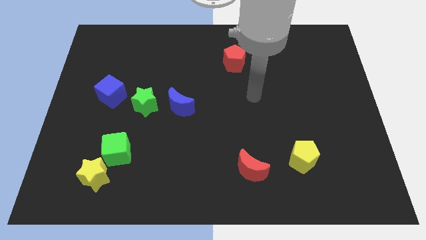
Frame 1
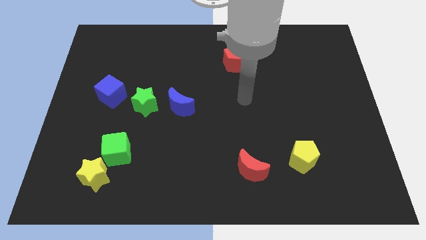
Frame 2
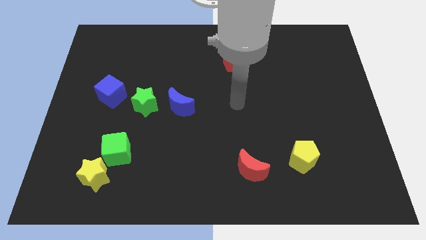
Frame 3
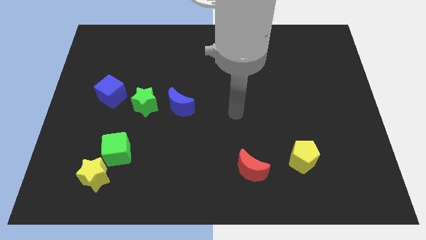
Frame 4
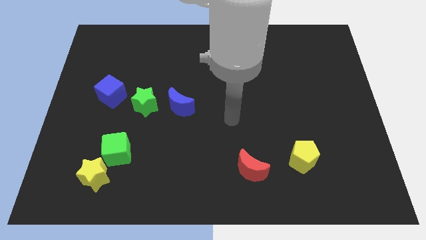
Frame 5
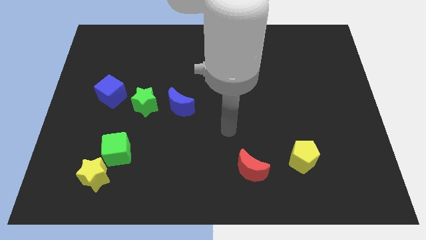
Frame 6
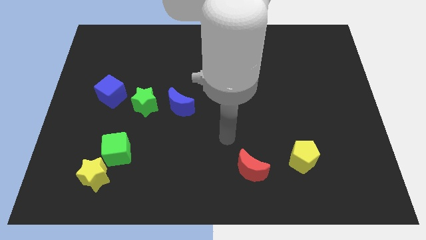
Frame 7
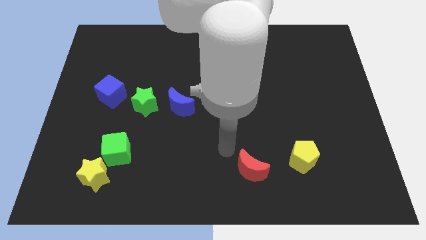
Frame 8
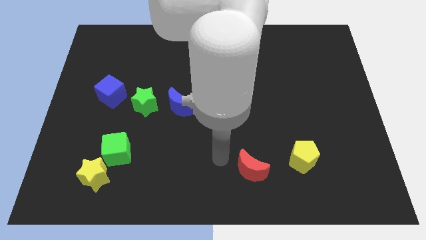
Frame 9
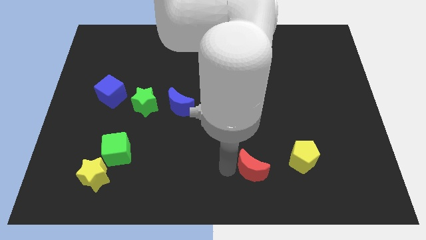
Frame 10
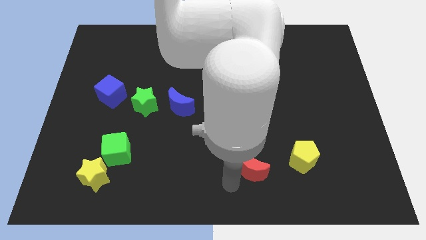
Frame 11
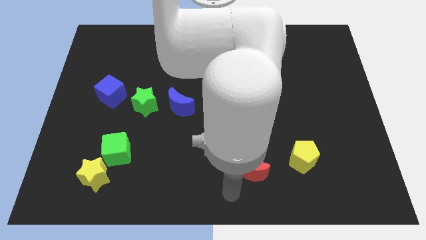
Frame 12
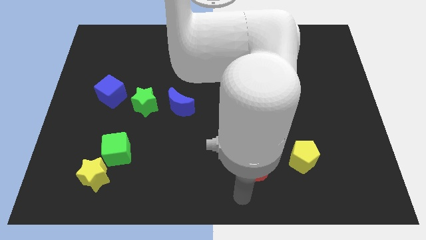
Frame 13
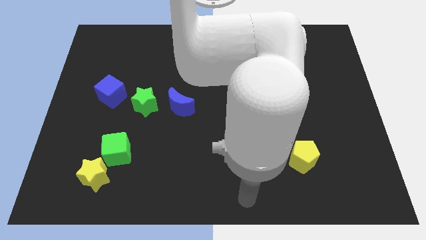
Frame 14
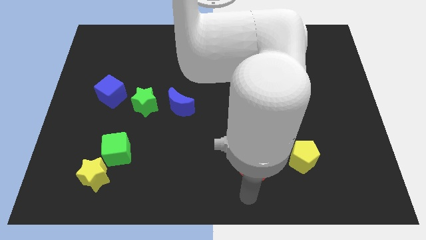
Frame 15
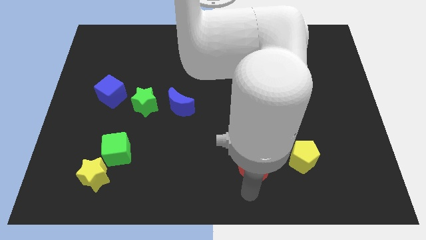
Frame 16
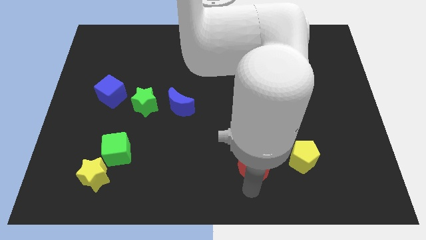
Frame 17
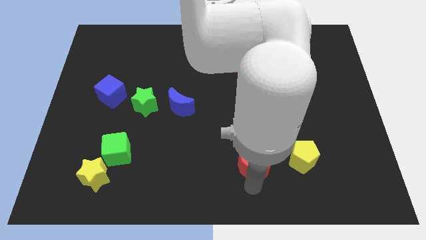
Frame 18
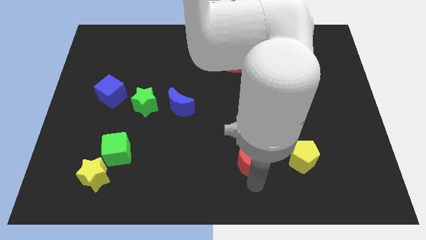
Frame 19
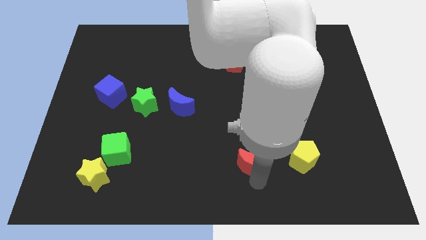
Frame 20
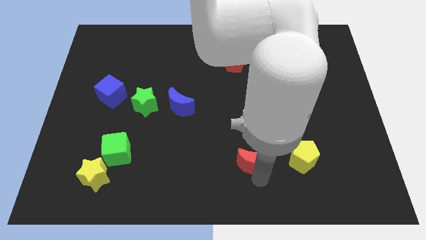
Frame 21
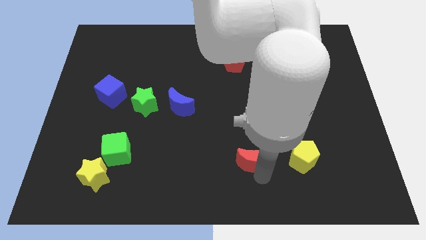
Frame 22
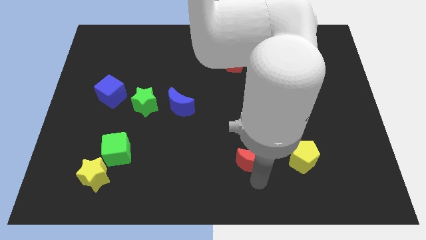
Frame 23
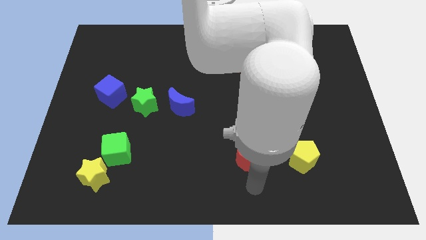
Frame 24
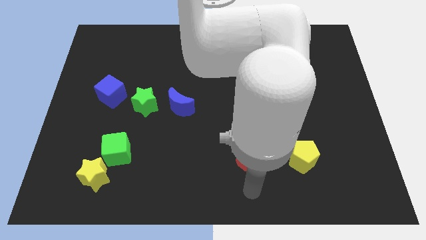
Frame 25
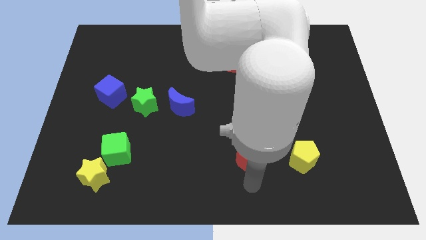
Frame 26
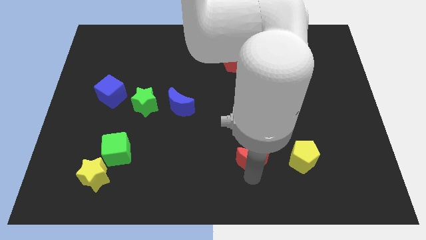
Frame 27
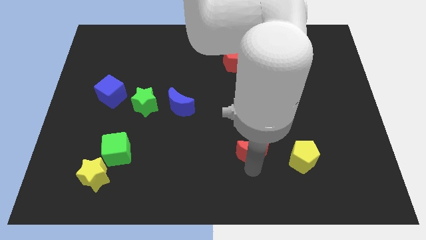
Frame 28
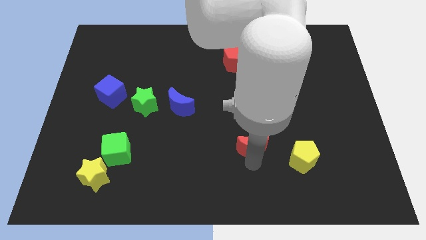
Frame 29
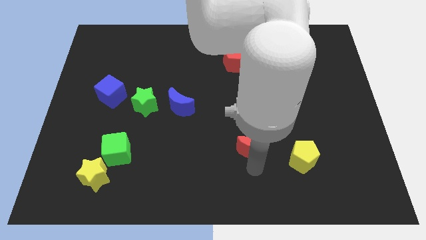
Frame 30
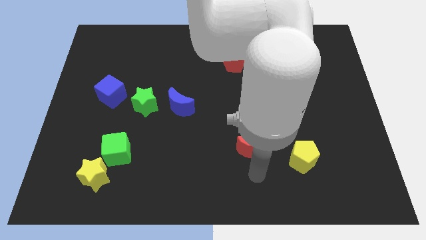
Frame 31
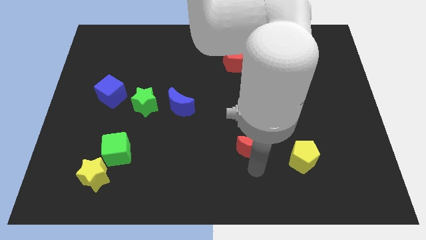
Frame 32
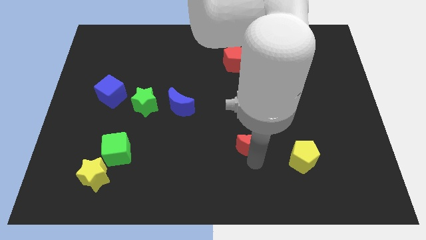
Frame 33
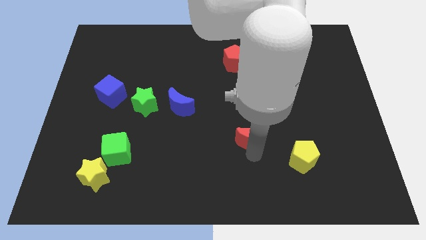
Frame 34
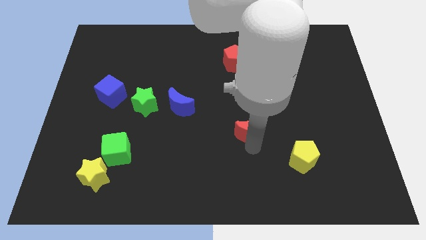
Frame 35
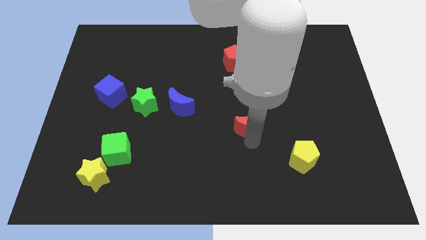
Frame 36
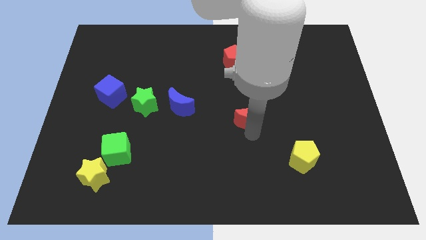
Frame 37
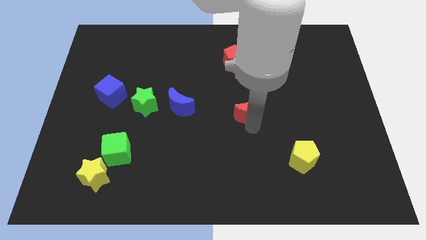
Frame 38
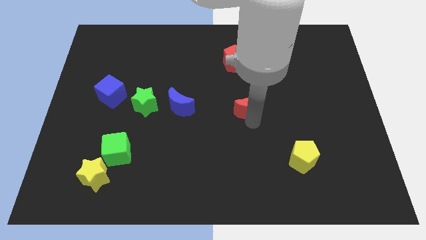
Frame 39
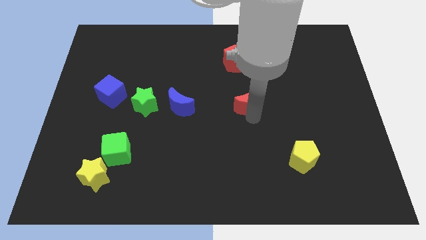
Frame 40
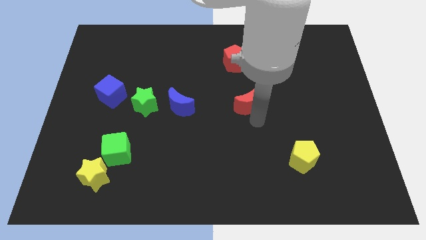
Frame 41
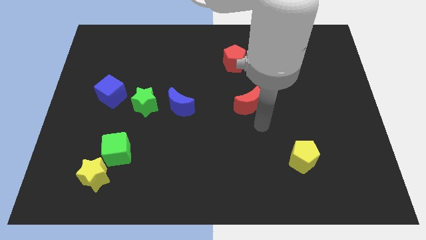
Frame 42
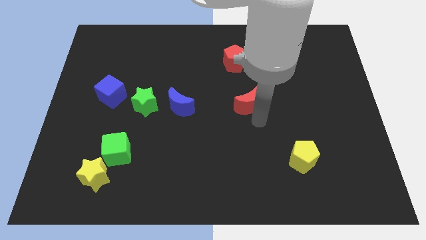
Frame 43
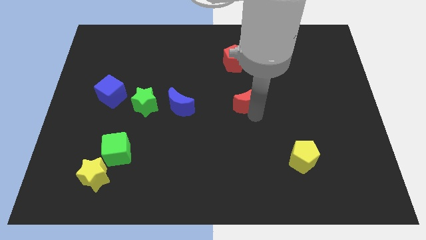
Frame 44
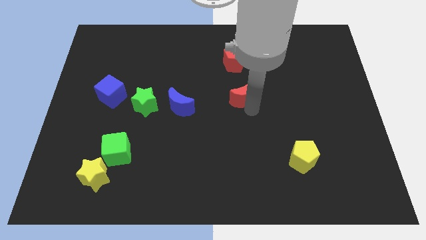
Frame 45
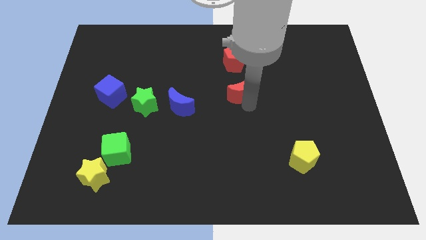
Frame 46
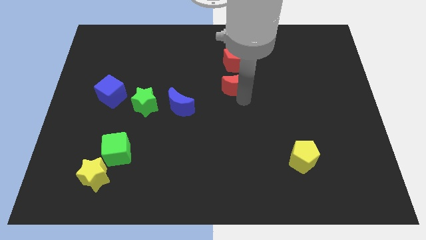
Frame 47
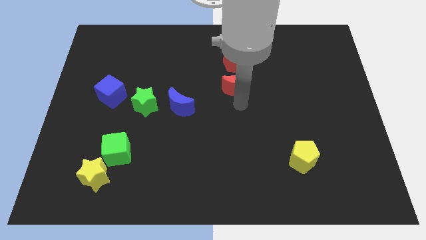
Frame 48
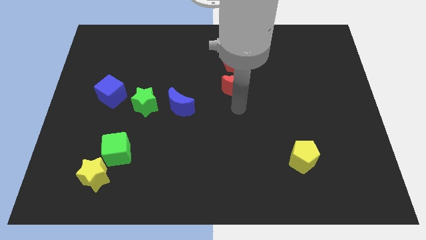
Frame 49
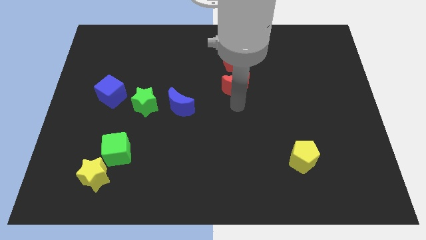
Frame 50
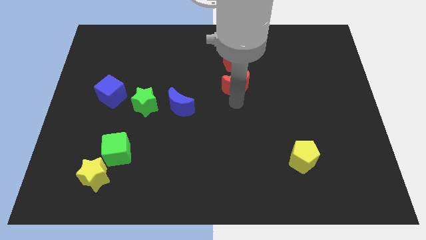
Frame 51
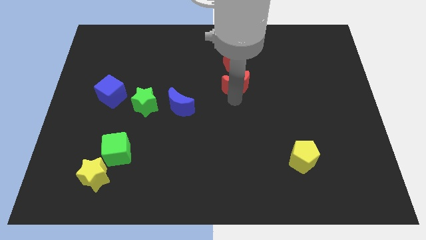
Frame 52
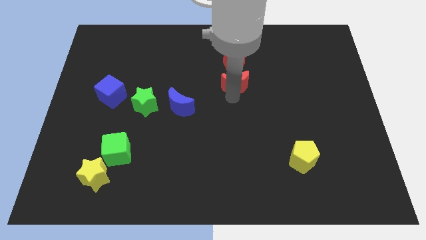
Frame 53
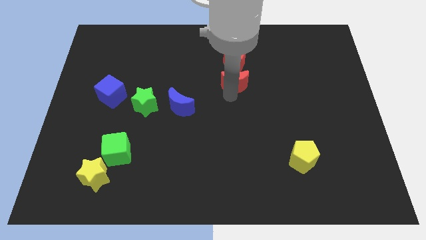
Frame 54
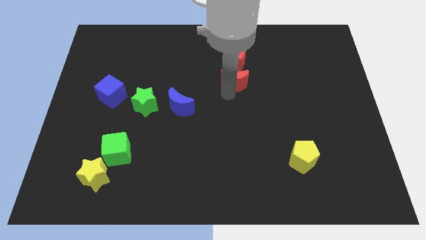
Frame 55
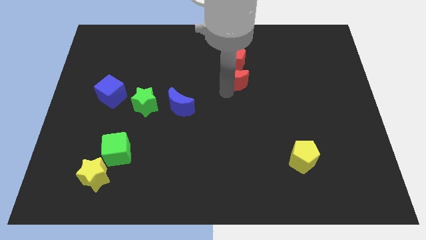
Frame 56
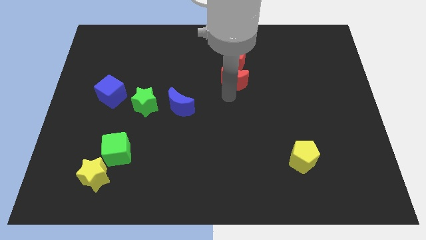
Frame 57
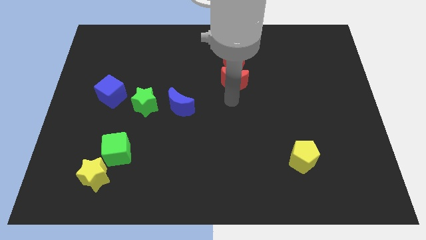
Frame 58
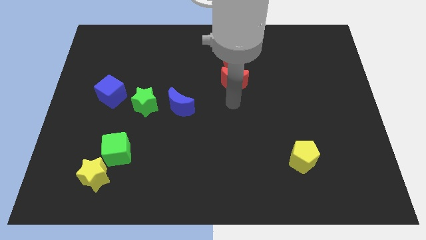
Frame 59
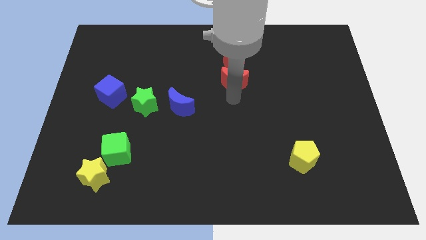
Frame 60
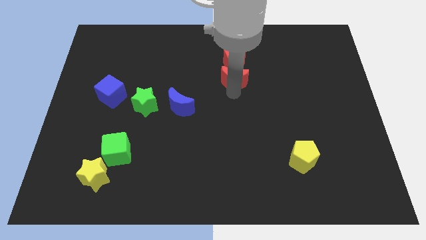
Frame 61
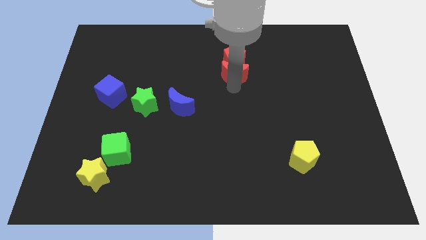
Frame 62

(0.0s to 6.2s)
slide the red moon towards the red pentagon

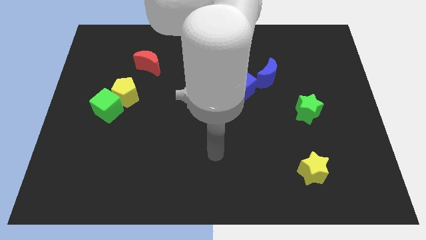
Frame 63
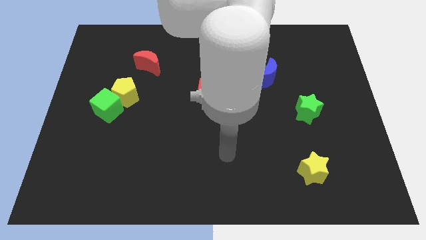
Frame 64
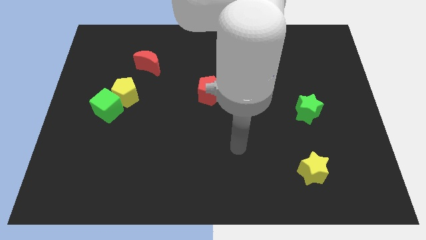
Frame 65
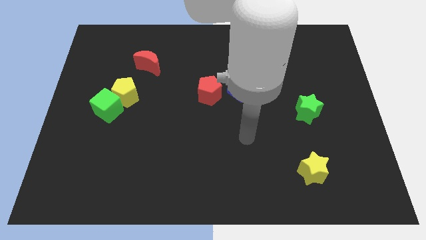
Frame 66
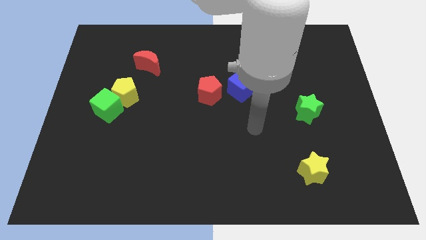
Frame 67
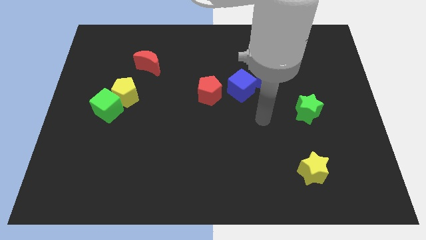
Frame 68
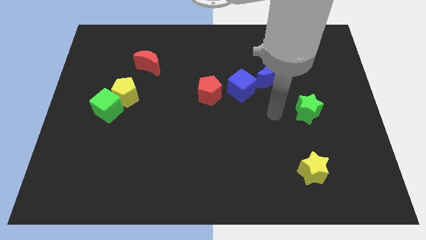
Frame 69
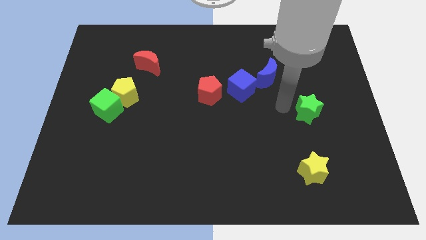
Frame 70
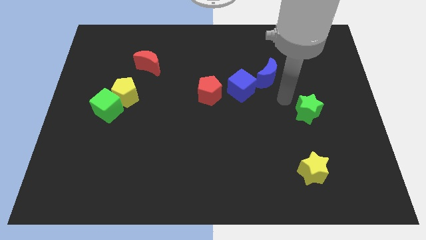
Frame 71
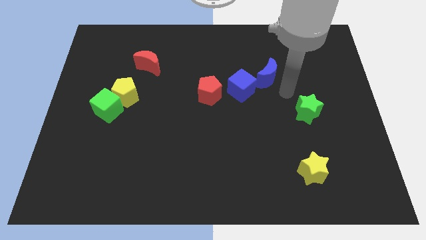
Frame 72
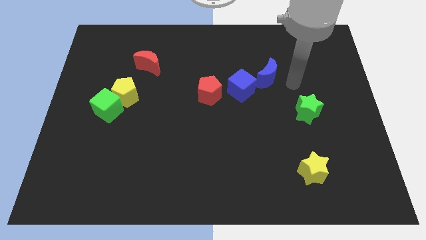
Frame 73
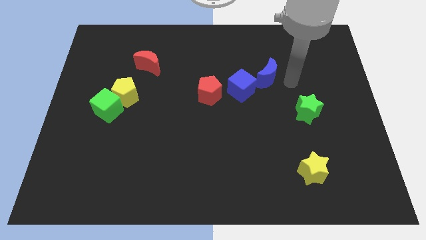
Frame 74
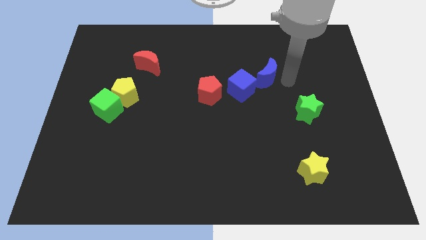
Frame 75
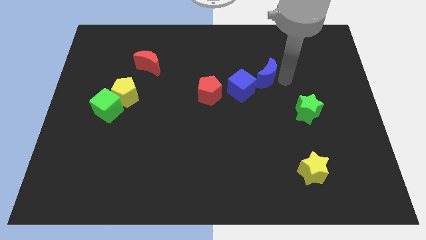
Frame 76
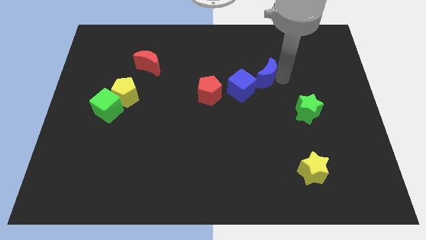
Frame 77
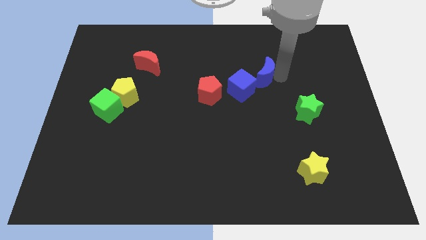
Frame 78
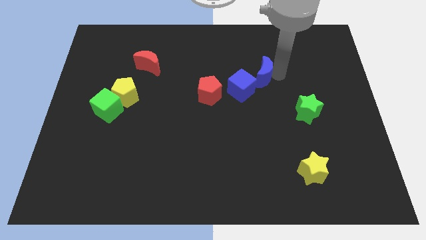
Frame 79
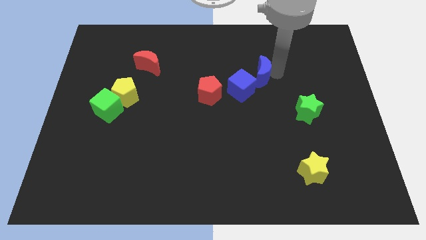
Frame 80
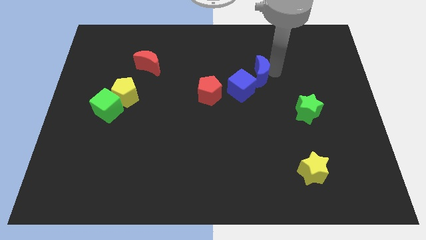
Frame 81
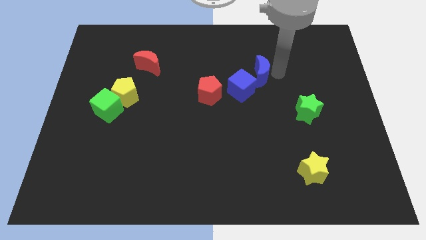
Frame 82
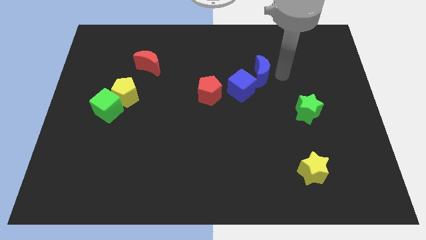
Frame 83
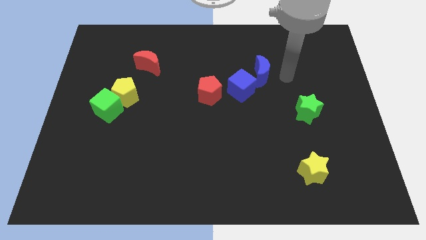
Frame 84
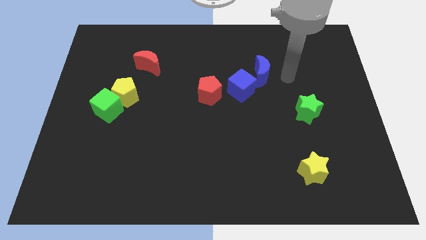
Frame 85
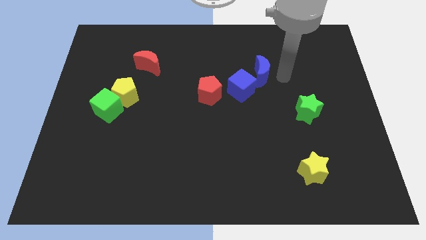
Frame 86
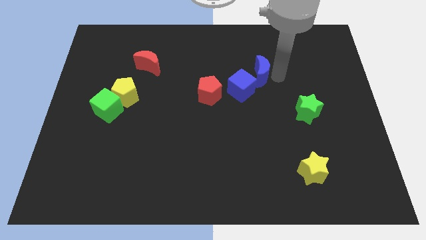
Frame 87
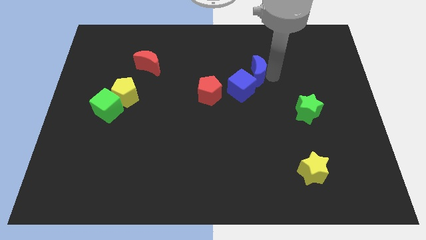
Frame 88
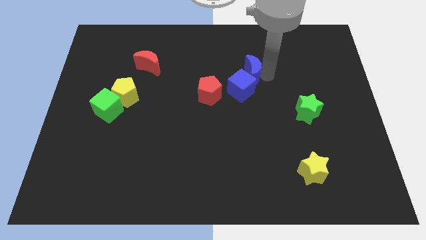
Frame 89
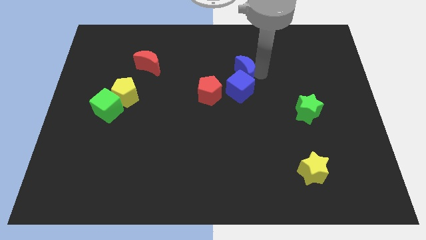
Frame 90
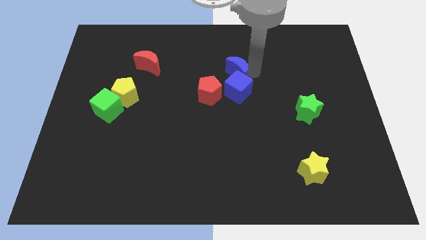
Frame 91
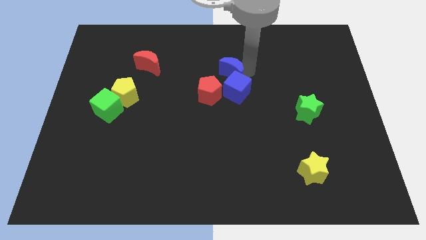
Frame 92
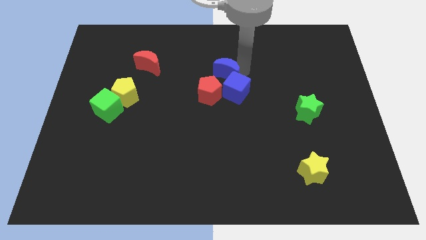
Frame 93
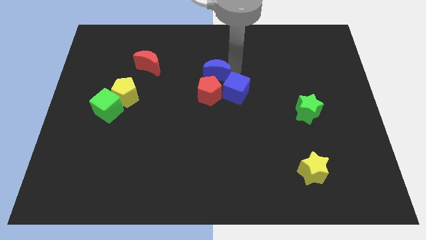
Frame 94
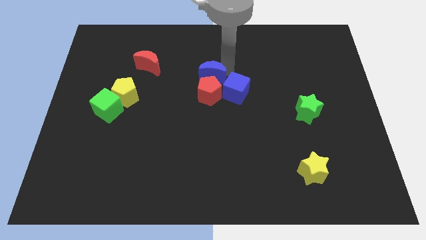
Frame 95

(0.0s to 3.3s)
move the blue moon next to the red pentagon
